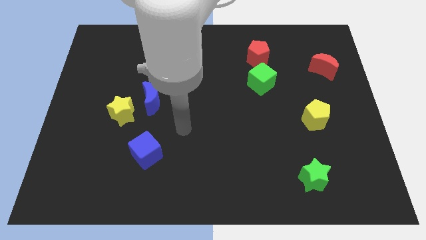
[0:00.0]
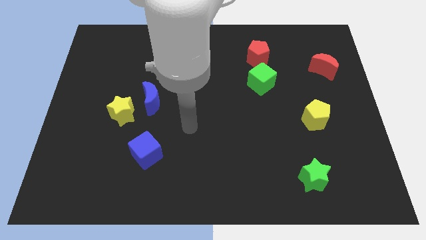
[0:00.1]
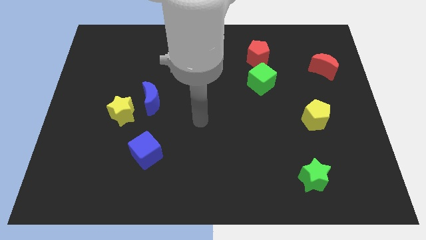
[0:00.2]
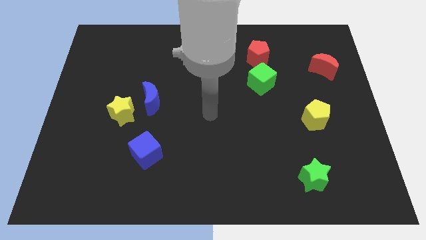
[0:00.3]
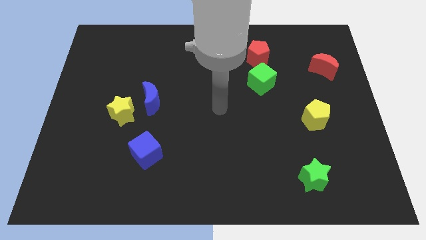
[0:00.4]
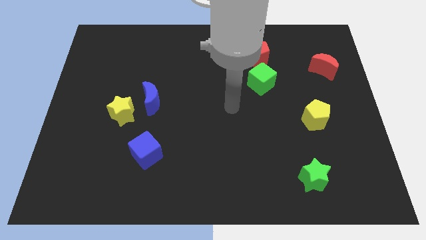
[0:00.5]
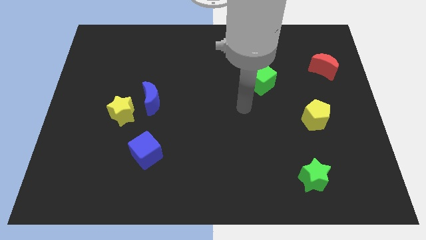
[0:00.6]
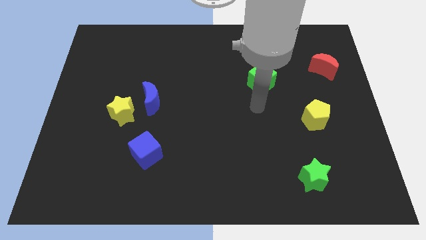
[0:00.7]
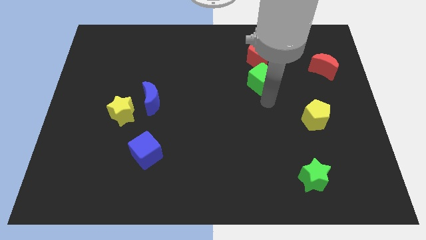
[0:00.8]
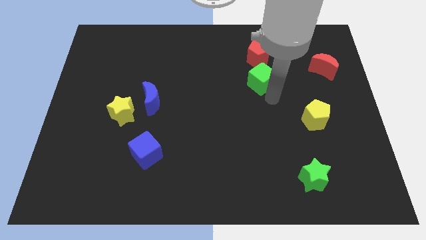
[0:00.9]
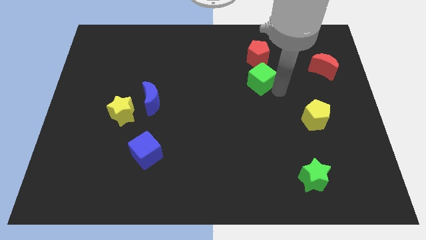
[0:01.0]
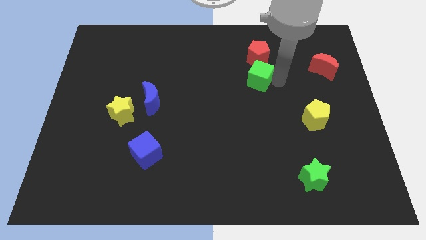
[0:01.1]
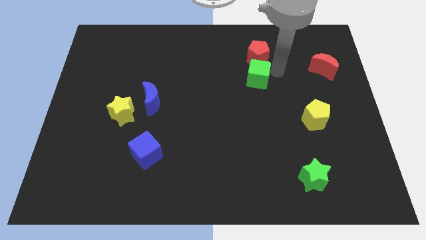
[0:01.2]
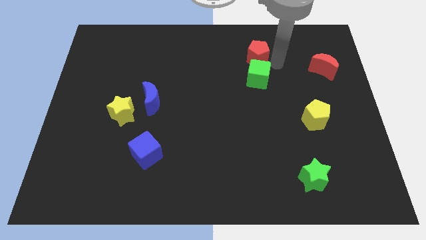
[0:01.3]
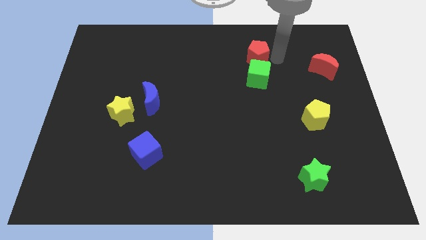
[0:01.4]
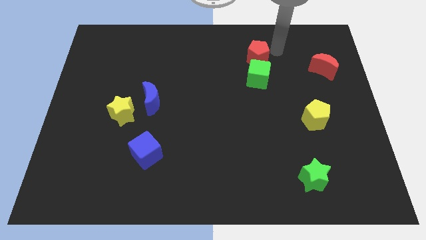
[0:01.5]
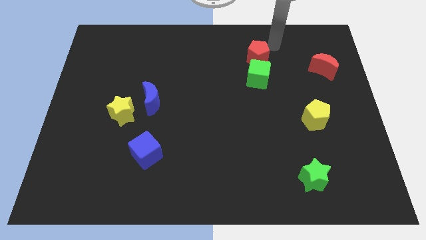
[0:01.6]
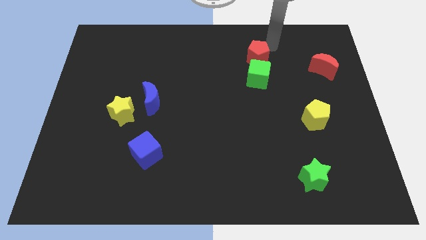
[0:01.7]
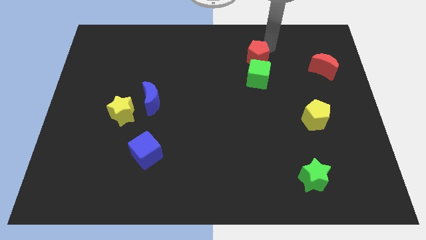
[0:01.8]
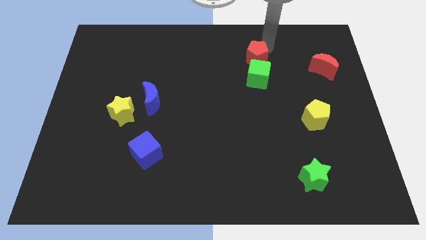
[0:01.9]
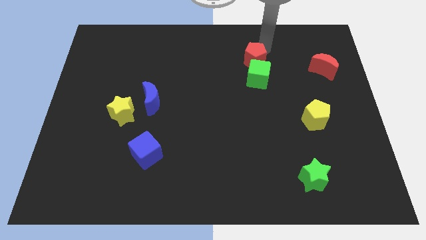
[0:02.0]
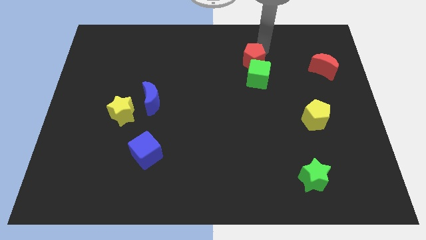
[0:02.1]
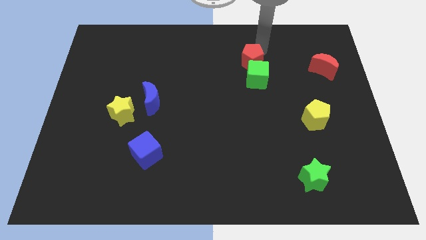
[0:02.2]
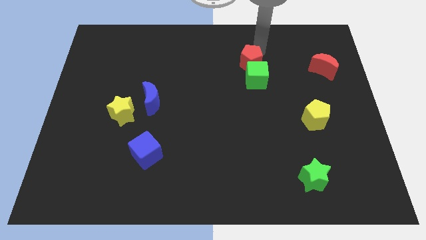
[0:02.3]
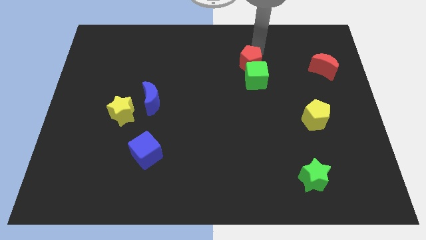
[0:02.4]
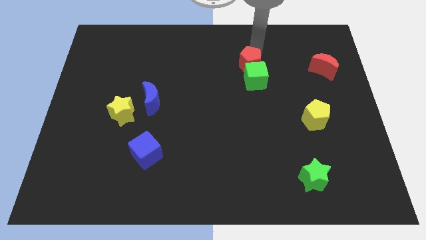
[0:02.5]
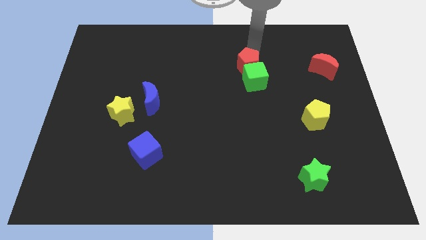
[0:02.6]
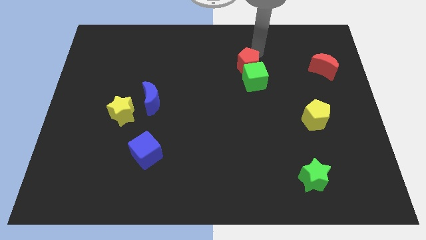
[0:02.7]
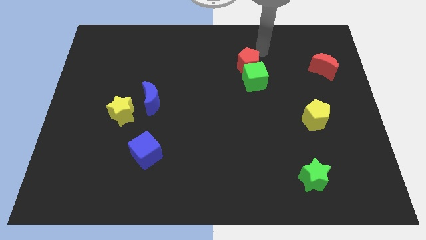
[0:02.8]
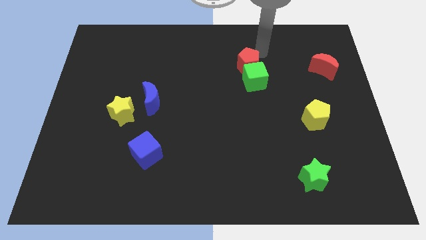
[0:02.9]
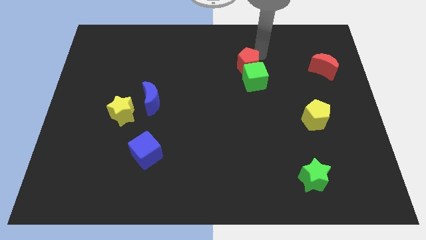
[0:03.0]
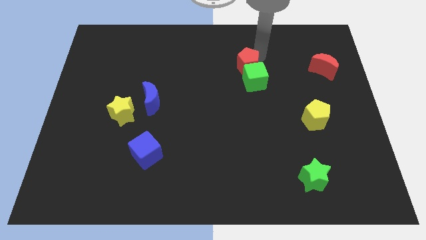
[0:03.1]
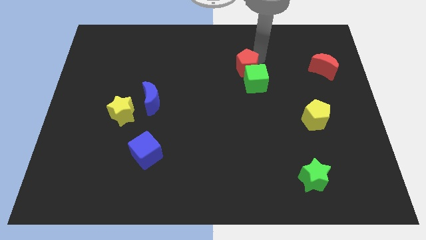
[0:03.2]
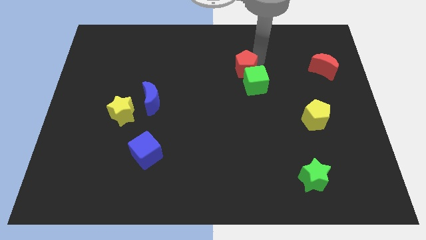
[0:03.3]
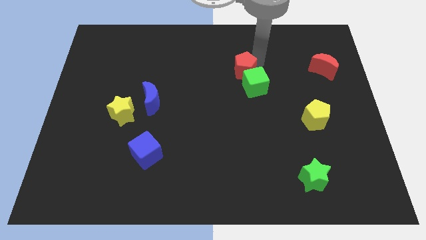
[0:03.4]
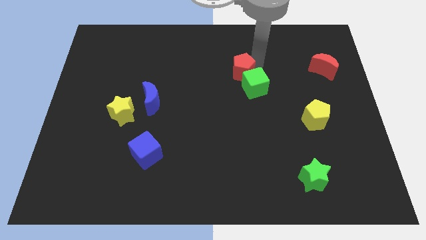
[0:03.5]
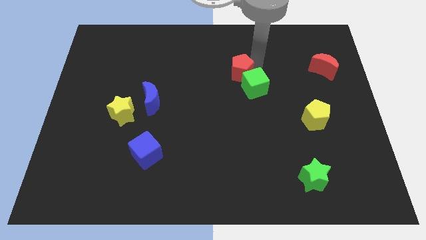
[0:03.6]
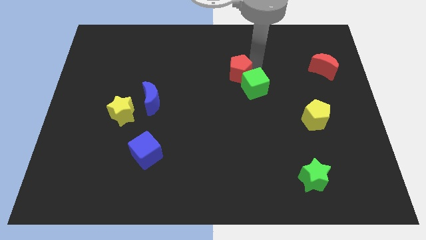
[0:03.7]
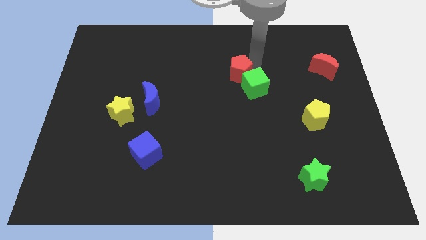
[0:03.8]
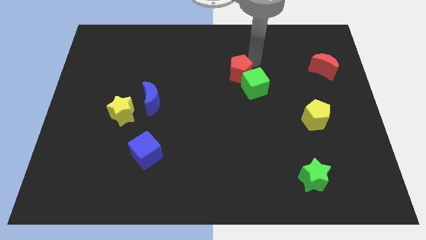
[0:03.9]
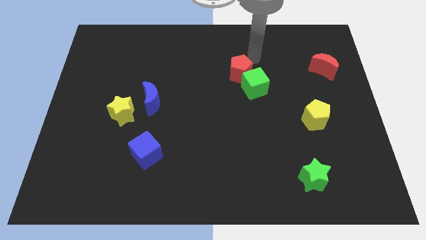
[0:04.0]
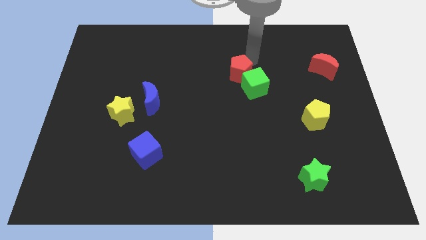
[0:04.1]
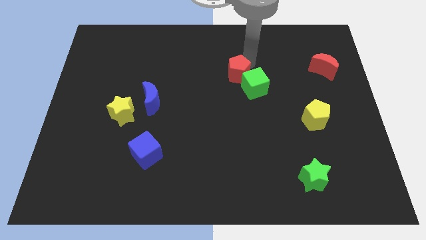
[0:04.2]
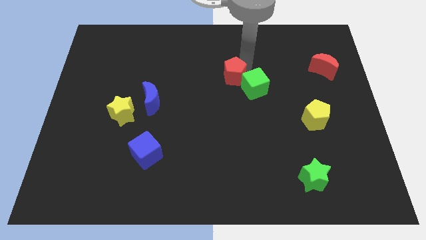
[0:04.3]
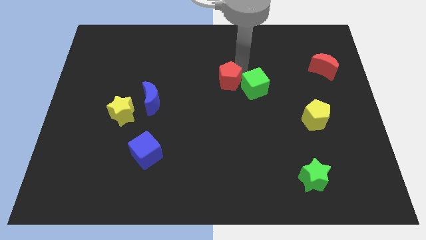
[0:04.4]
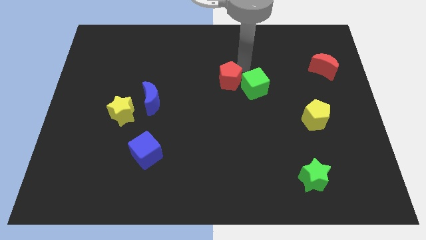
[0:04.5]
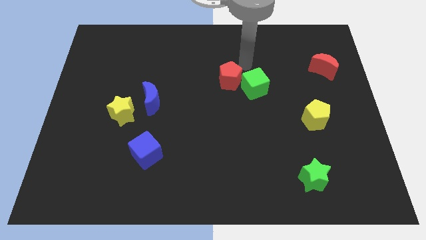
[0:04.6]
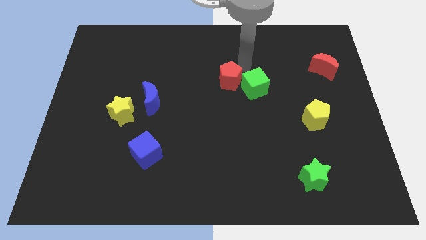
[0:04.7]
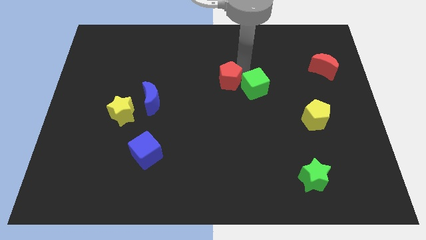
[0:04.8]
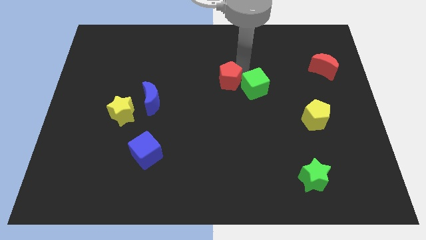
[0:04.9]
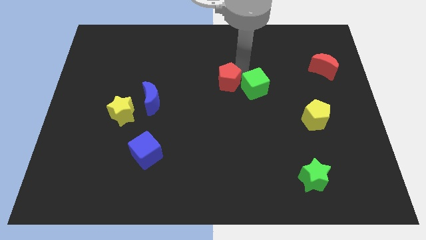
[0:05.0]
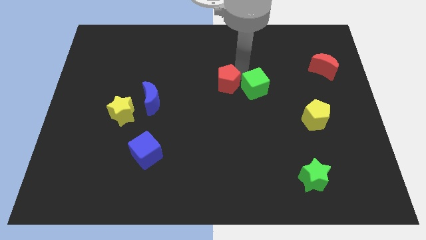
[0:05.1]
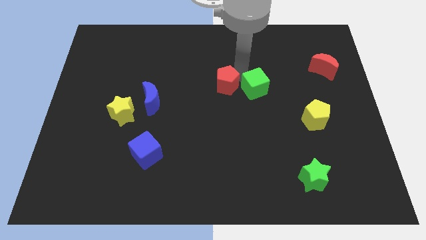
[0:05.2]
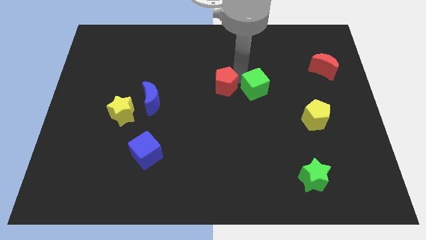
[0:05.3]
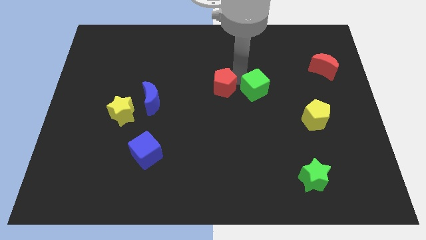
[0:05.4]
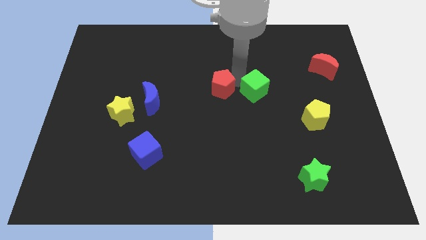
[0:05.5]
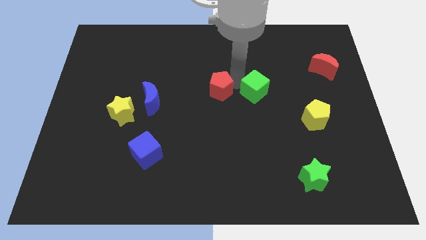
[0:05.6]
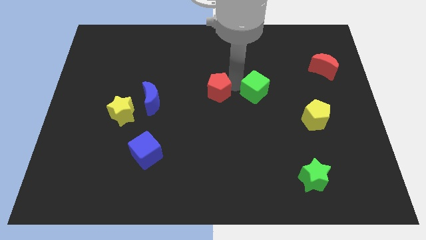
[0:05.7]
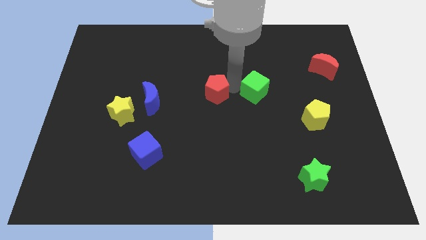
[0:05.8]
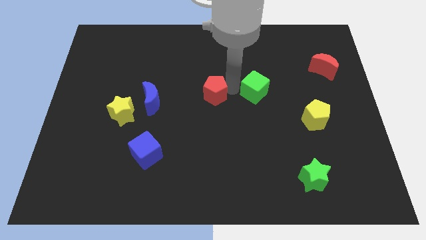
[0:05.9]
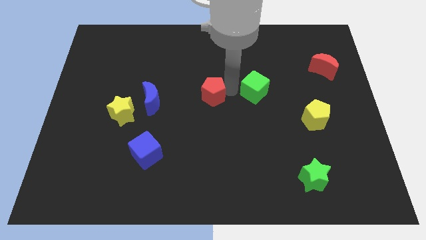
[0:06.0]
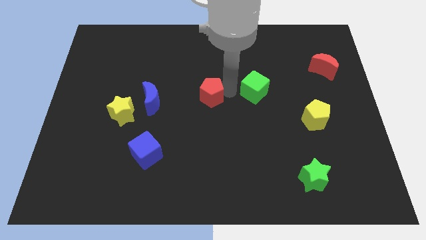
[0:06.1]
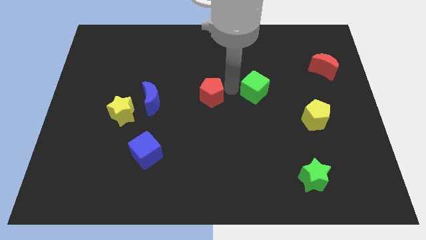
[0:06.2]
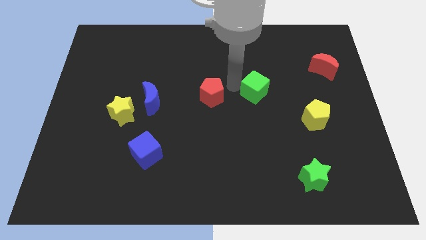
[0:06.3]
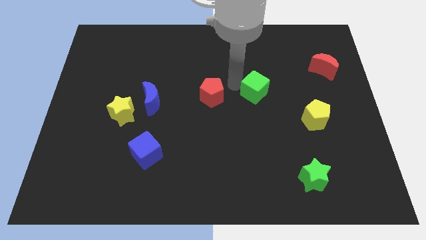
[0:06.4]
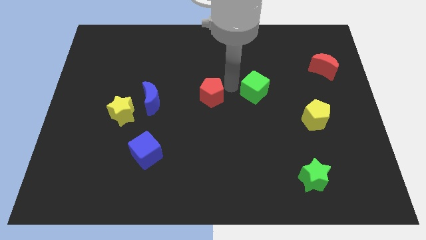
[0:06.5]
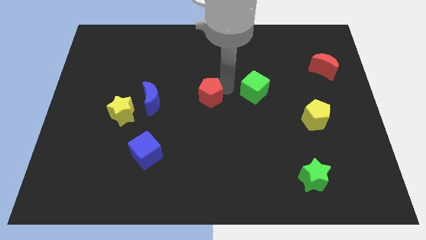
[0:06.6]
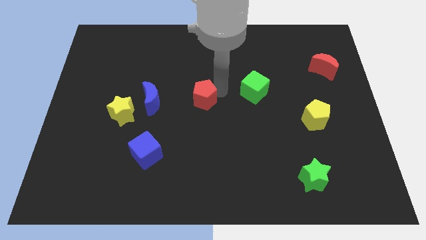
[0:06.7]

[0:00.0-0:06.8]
move the red pentagon downwards and left diagonally

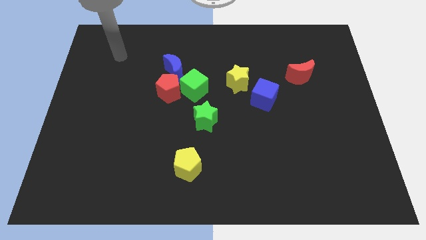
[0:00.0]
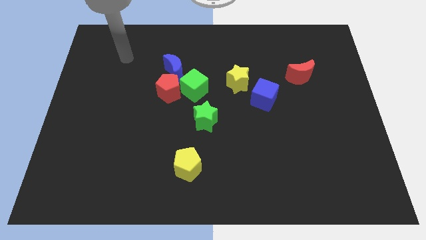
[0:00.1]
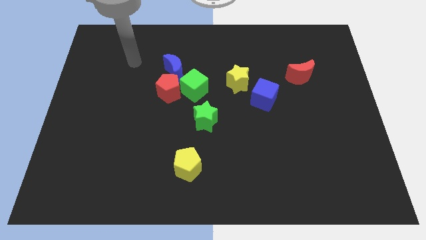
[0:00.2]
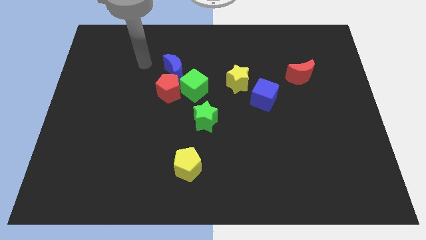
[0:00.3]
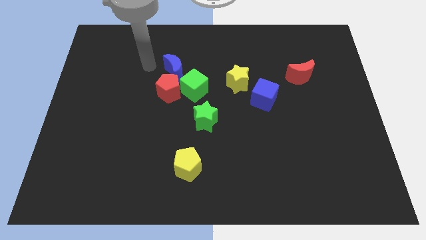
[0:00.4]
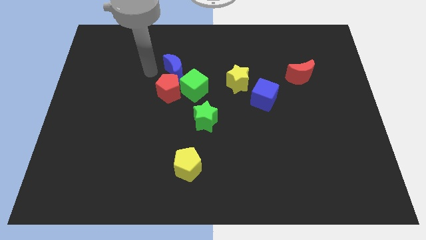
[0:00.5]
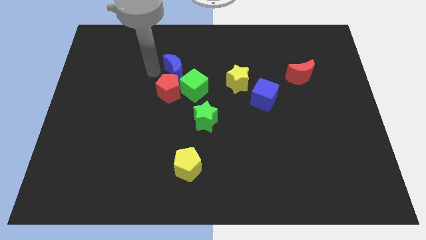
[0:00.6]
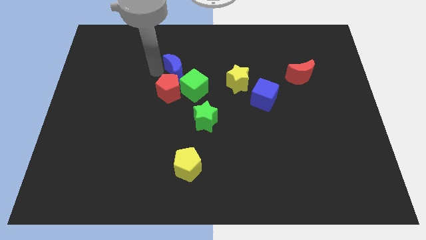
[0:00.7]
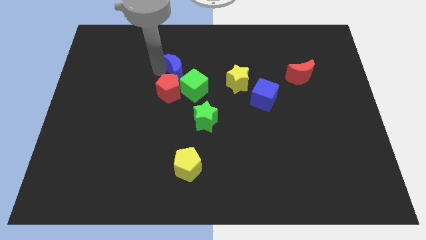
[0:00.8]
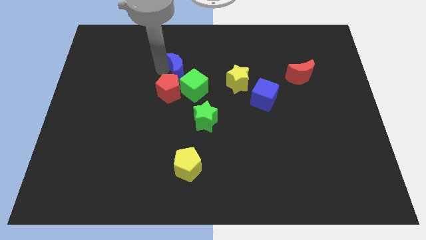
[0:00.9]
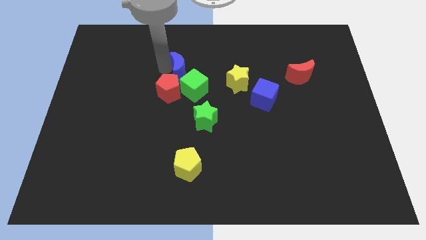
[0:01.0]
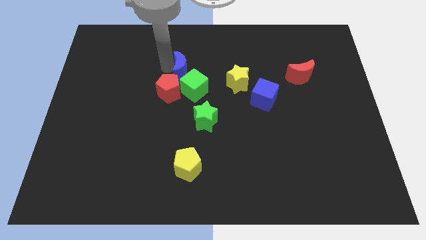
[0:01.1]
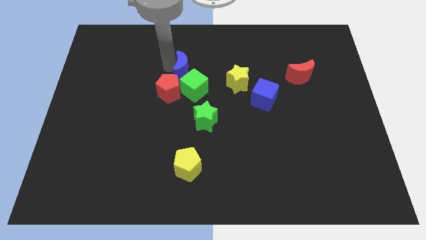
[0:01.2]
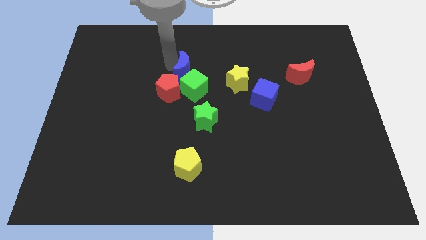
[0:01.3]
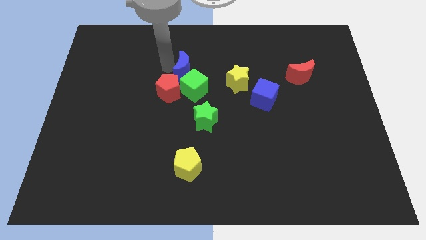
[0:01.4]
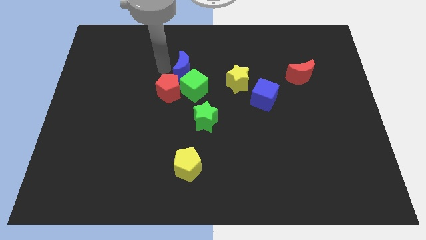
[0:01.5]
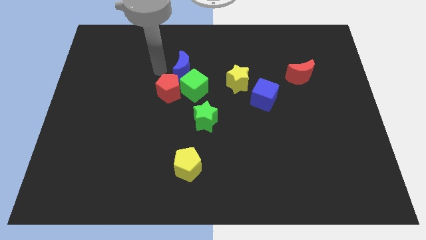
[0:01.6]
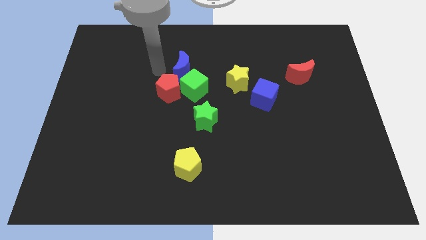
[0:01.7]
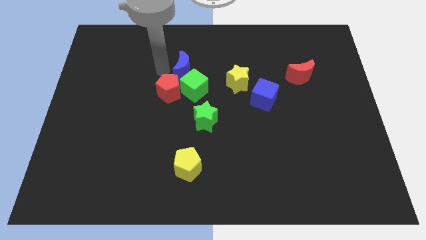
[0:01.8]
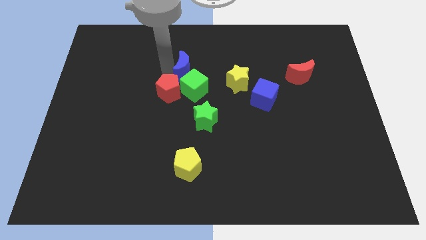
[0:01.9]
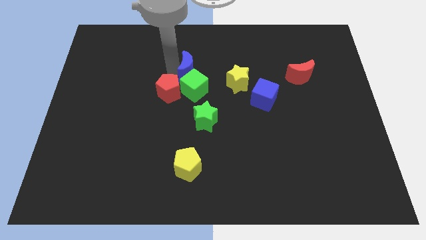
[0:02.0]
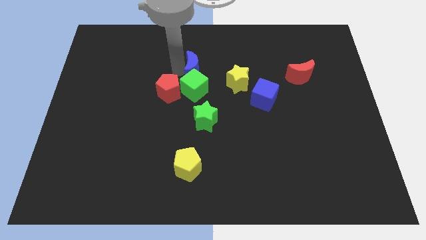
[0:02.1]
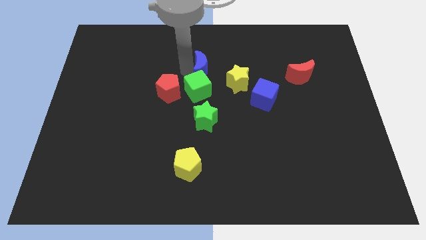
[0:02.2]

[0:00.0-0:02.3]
slightly slide the blue moon to the right
